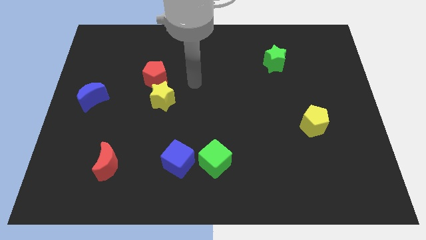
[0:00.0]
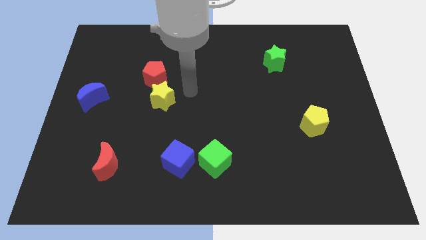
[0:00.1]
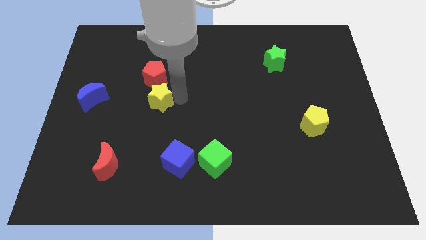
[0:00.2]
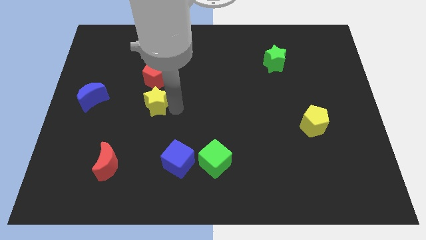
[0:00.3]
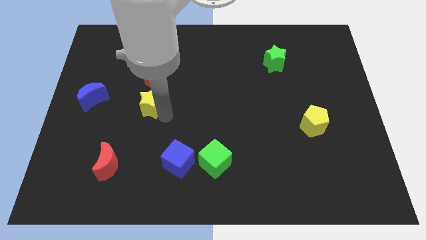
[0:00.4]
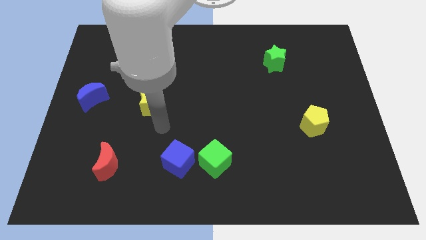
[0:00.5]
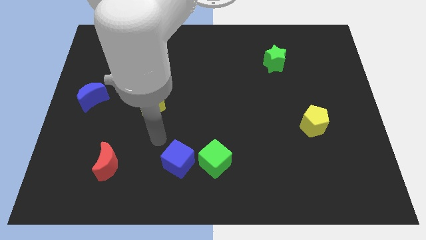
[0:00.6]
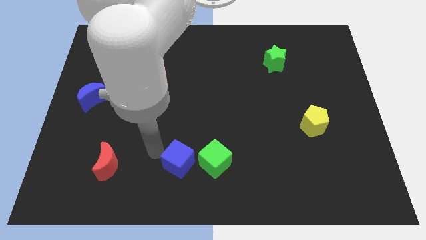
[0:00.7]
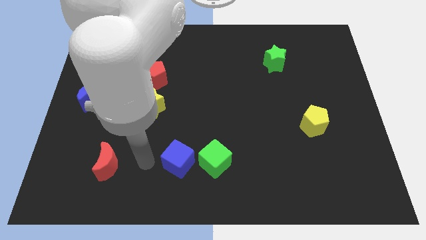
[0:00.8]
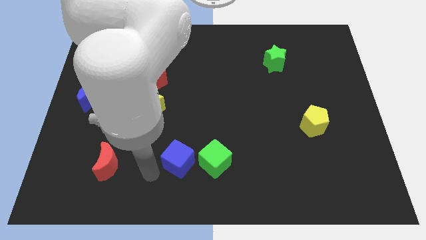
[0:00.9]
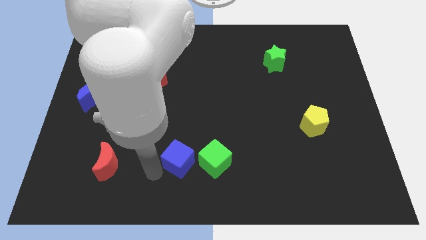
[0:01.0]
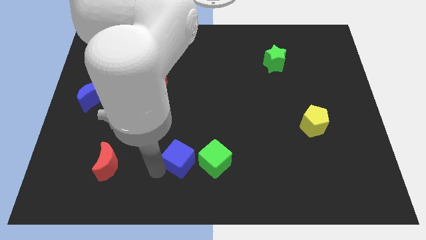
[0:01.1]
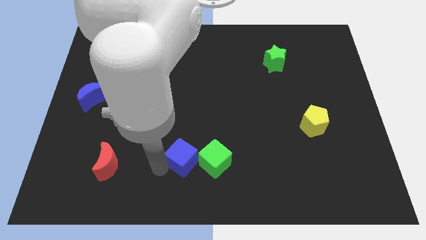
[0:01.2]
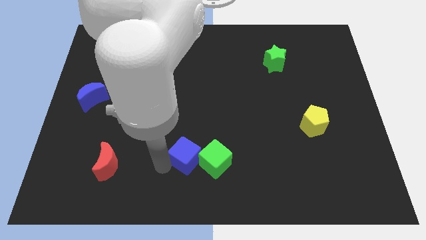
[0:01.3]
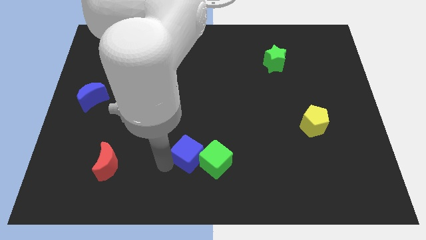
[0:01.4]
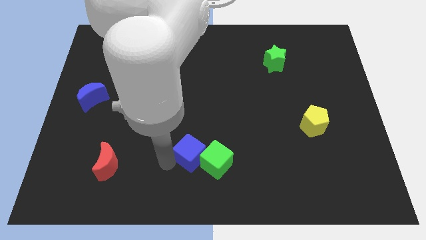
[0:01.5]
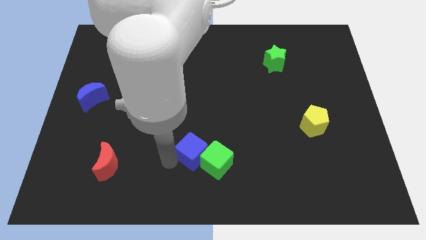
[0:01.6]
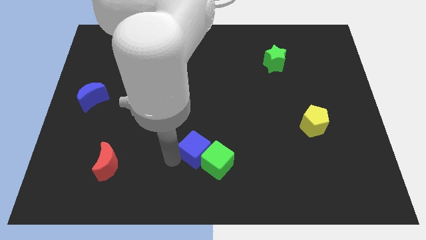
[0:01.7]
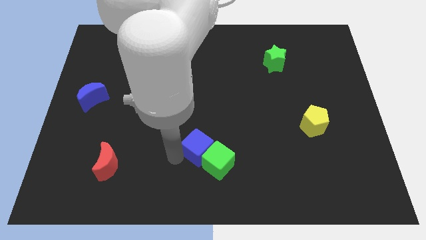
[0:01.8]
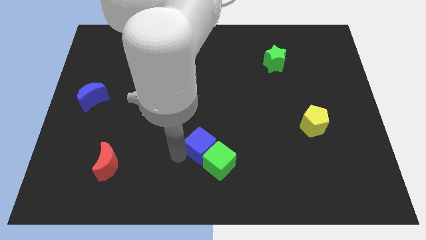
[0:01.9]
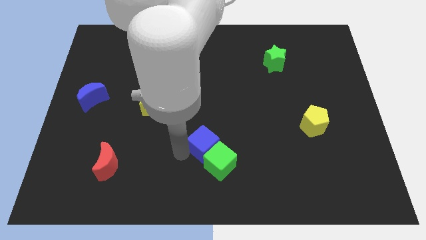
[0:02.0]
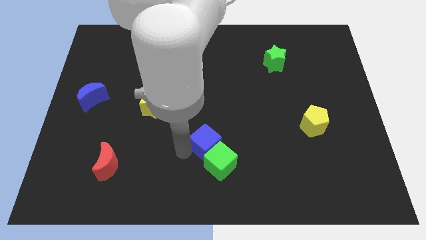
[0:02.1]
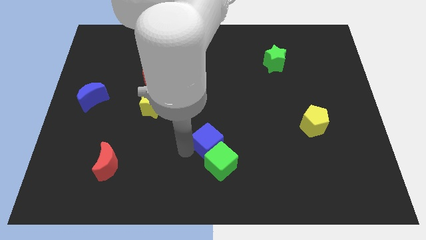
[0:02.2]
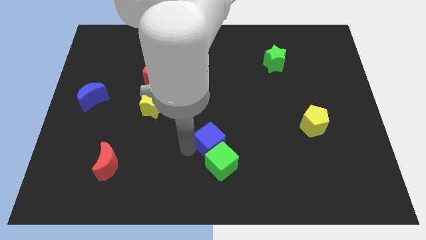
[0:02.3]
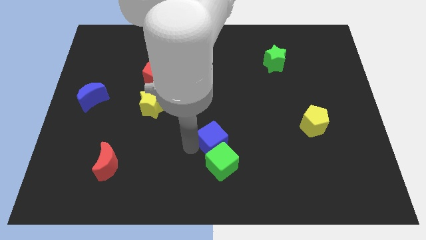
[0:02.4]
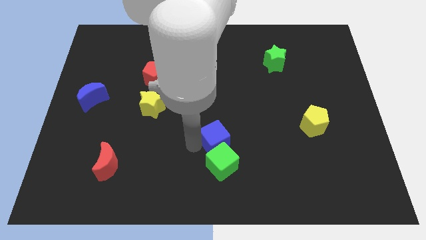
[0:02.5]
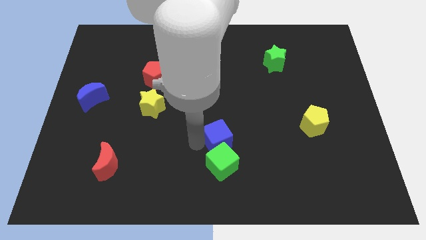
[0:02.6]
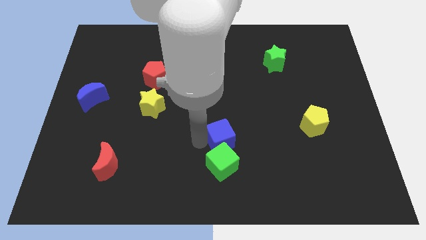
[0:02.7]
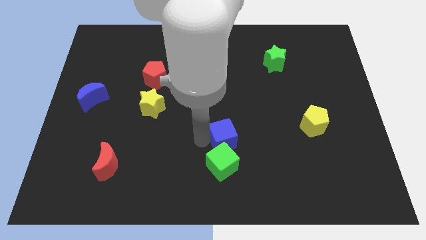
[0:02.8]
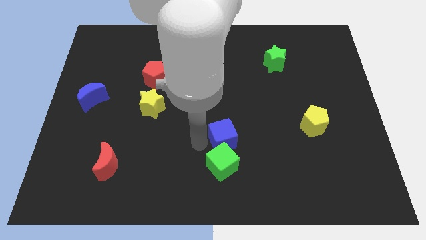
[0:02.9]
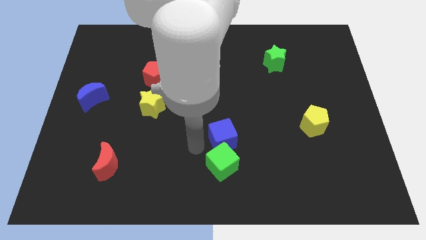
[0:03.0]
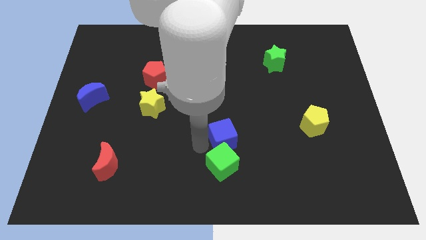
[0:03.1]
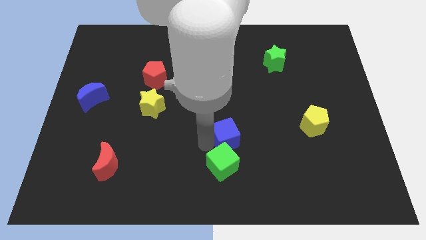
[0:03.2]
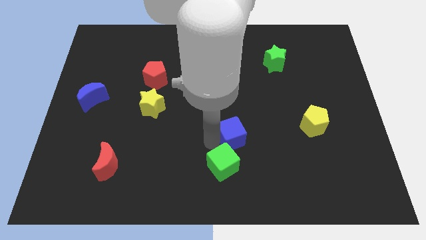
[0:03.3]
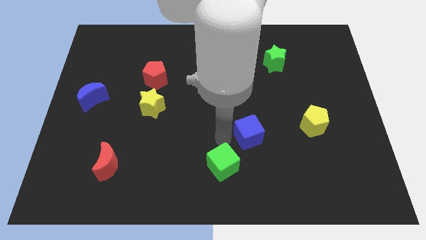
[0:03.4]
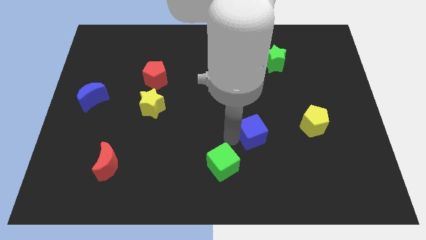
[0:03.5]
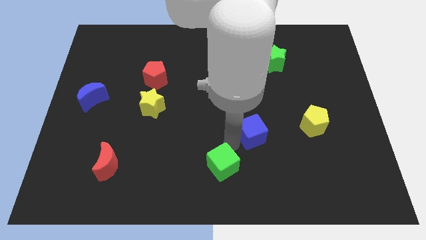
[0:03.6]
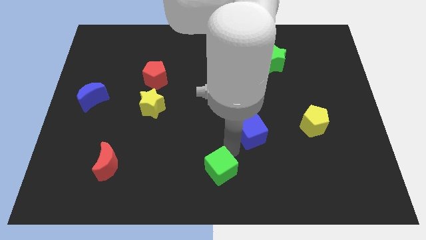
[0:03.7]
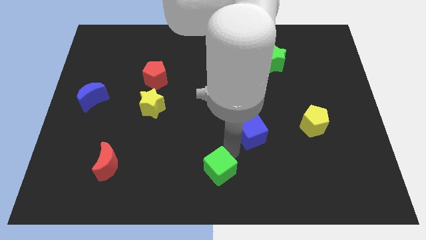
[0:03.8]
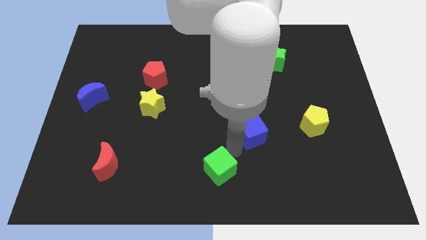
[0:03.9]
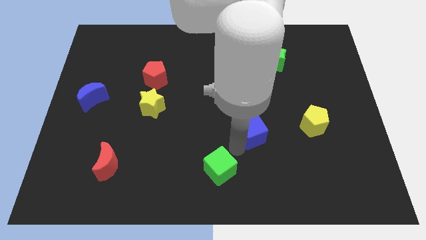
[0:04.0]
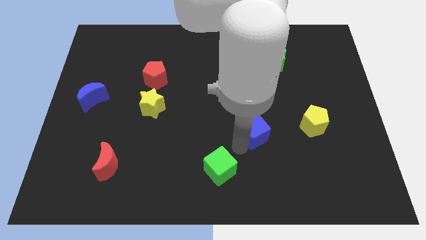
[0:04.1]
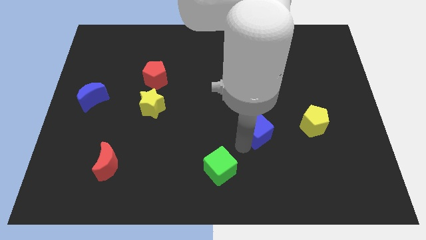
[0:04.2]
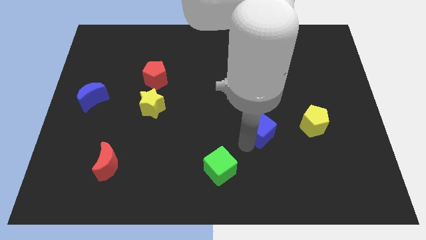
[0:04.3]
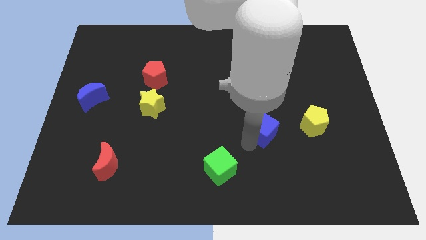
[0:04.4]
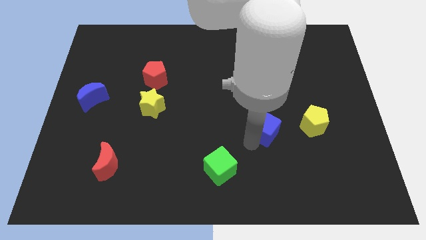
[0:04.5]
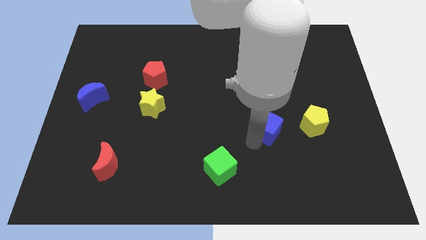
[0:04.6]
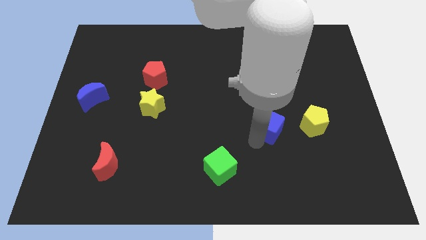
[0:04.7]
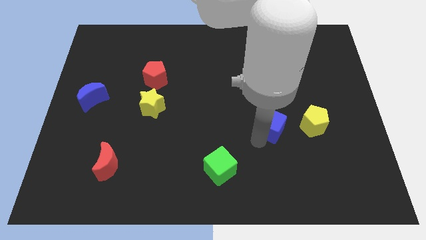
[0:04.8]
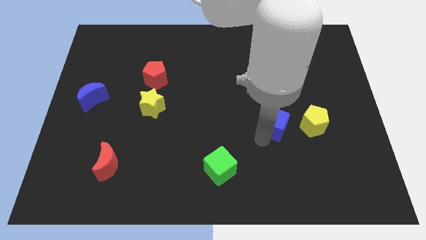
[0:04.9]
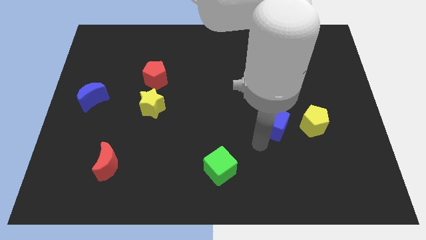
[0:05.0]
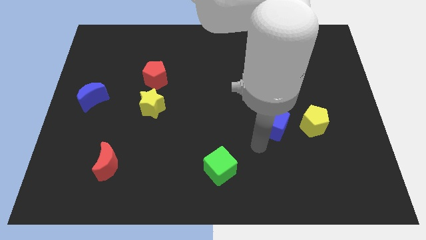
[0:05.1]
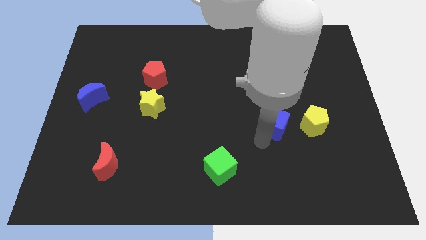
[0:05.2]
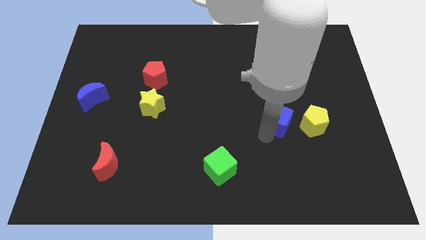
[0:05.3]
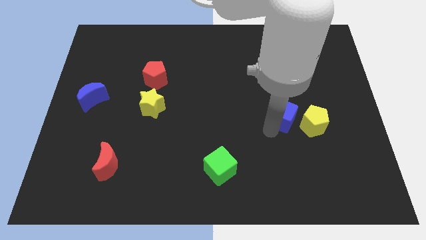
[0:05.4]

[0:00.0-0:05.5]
push the blue cube diagonally up and to the left of the yellow pentagon

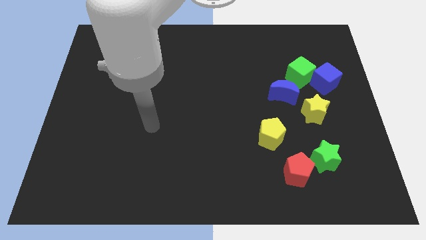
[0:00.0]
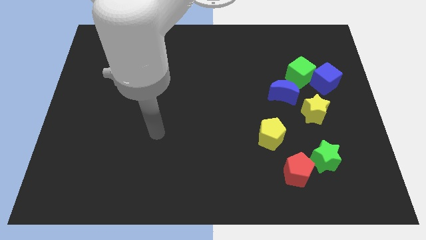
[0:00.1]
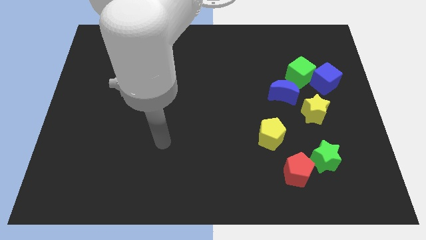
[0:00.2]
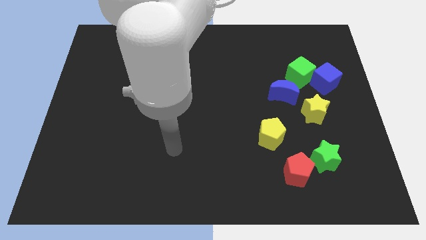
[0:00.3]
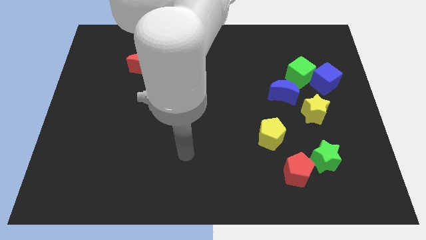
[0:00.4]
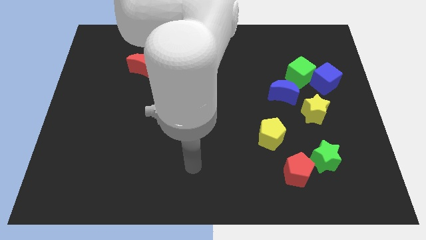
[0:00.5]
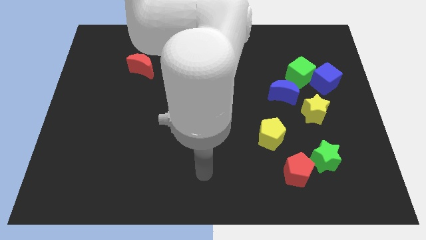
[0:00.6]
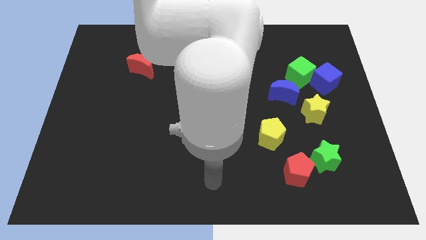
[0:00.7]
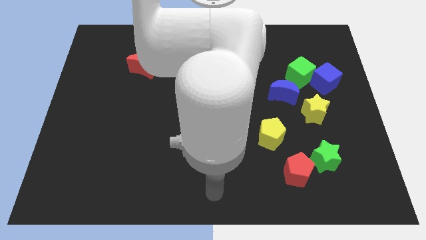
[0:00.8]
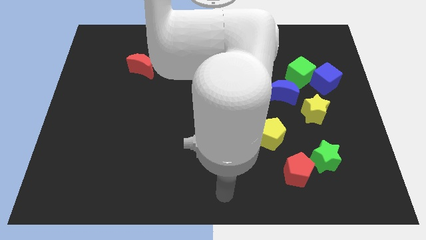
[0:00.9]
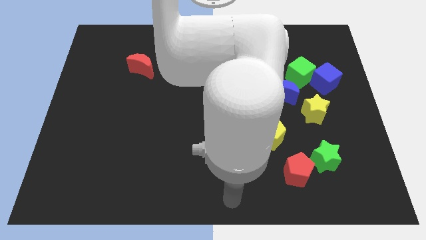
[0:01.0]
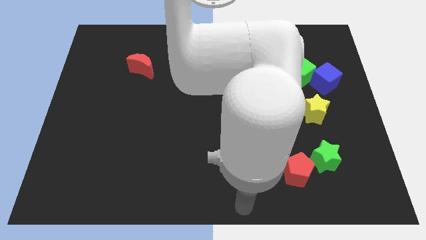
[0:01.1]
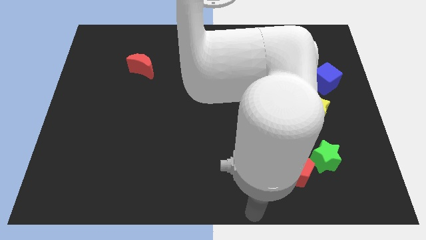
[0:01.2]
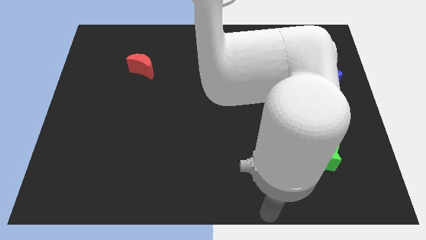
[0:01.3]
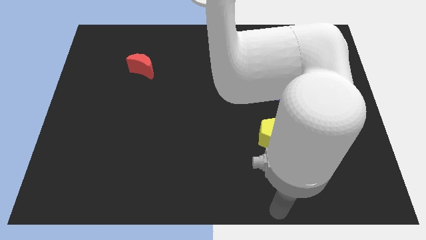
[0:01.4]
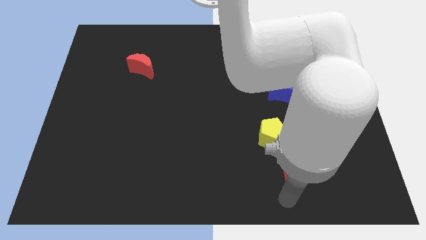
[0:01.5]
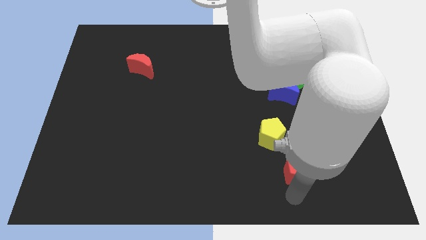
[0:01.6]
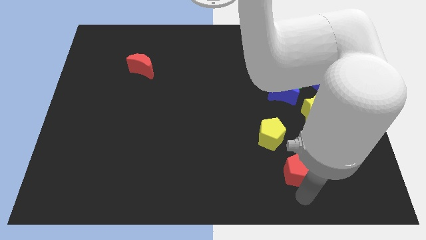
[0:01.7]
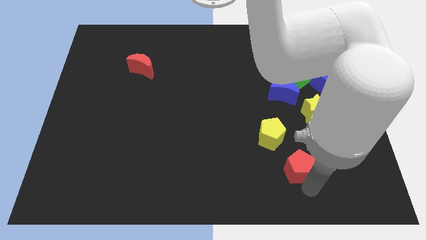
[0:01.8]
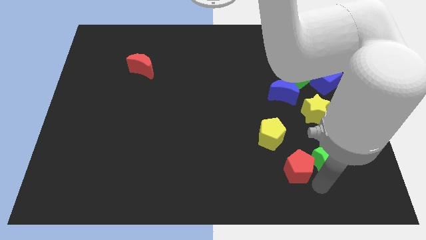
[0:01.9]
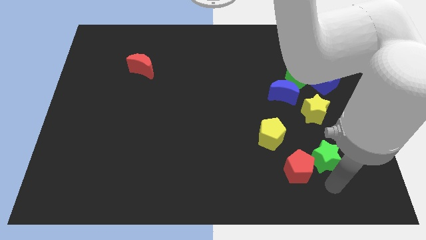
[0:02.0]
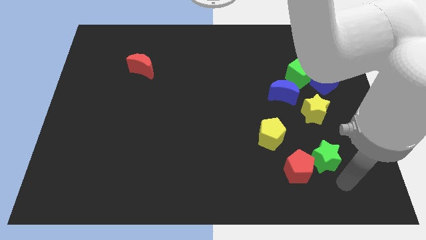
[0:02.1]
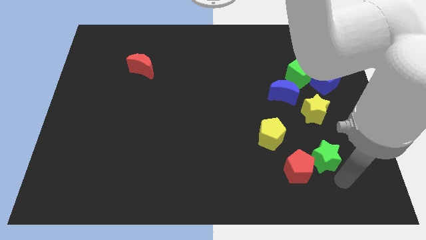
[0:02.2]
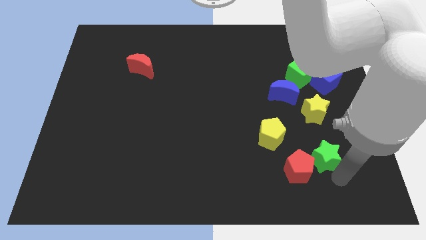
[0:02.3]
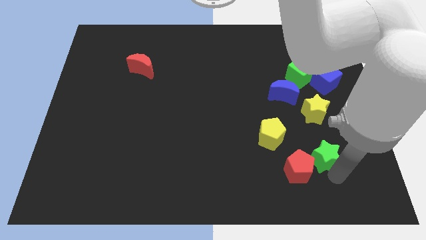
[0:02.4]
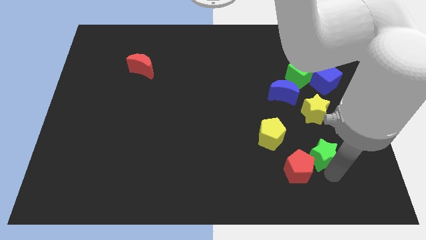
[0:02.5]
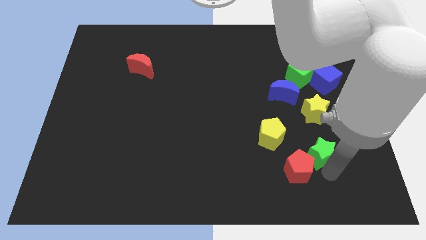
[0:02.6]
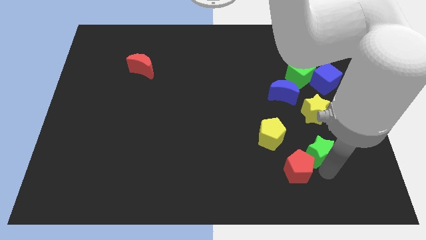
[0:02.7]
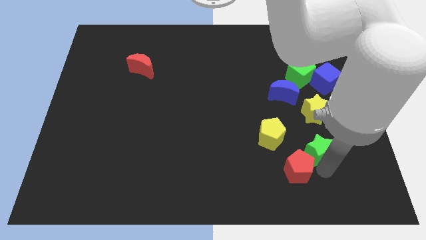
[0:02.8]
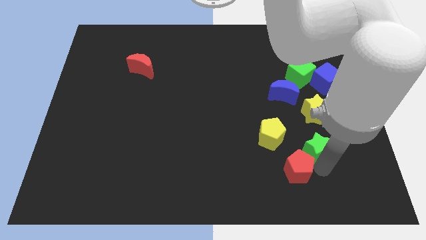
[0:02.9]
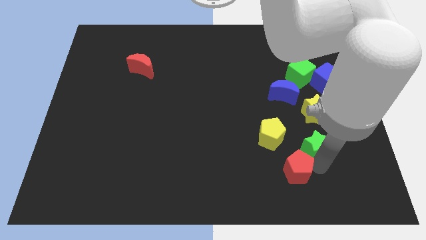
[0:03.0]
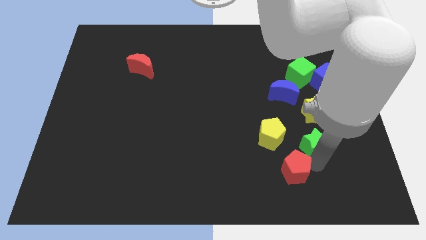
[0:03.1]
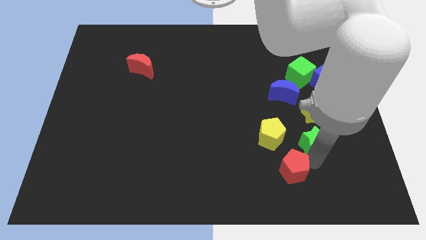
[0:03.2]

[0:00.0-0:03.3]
push the green star to the bottom left side of the yellow star
